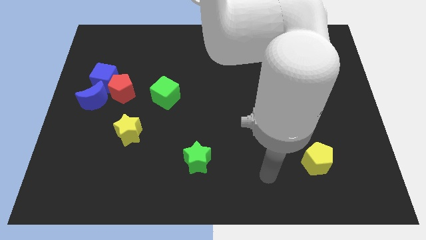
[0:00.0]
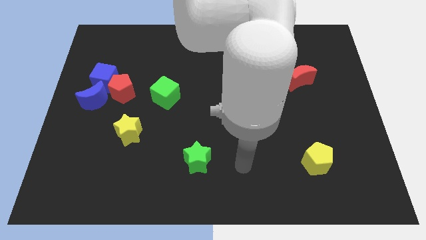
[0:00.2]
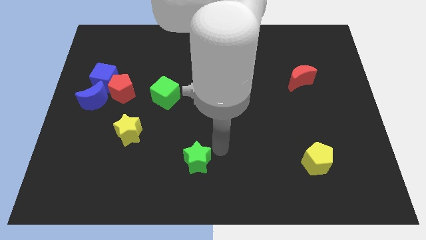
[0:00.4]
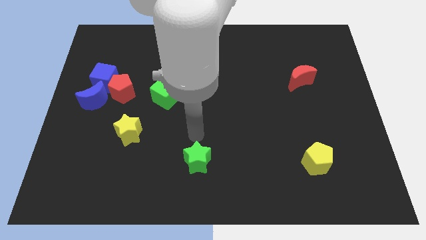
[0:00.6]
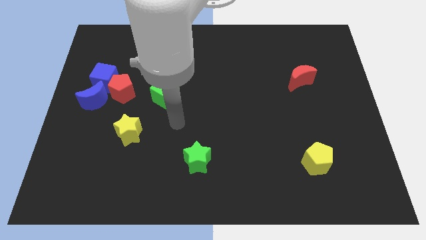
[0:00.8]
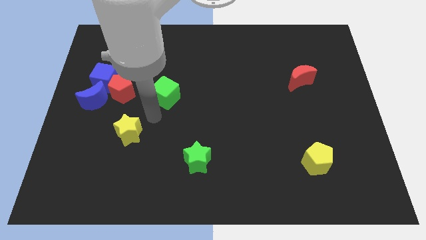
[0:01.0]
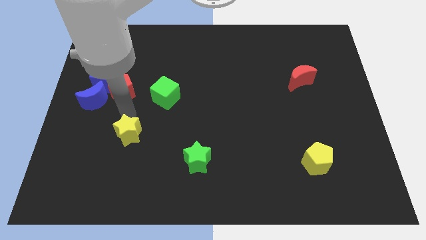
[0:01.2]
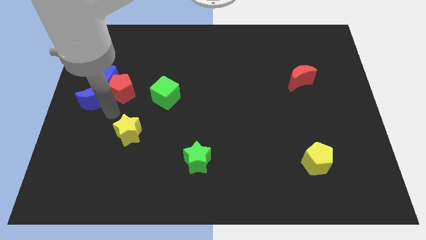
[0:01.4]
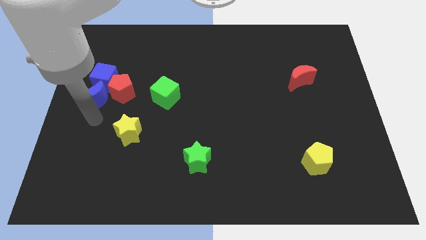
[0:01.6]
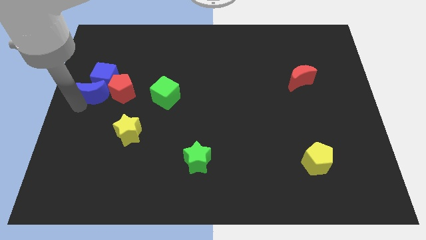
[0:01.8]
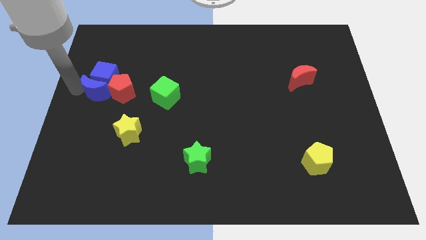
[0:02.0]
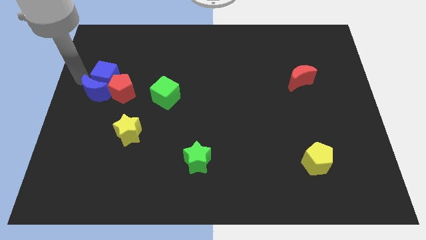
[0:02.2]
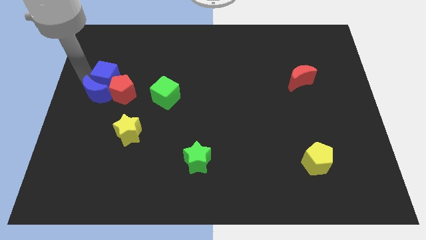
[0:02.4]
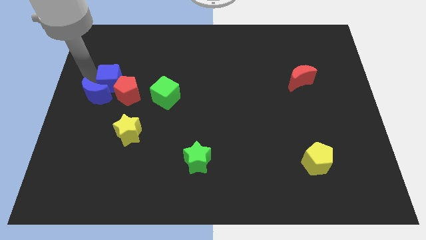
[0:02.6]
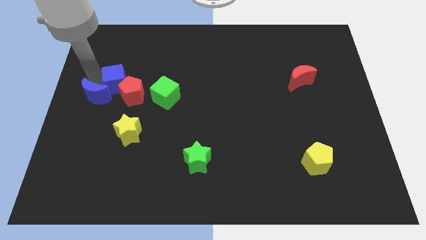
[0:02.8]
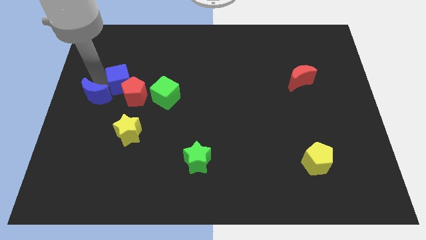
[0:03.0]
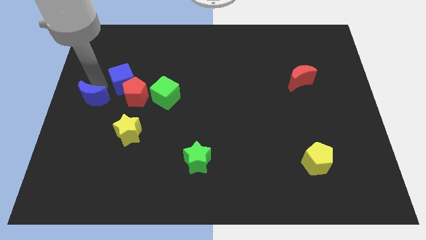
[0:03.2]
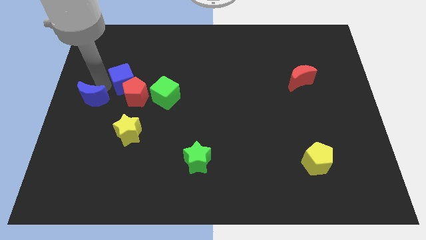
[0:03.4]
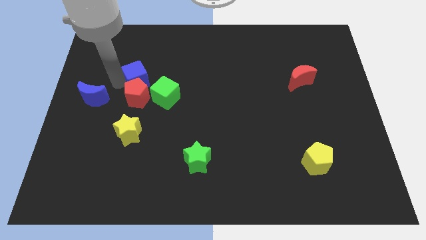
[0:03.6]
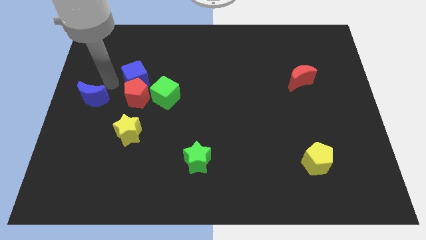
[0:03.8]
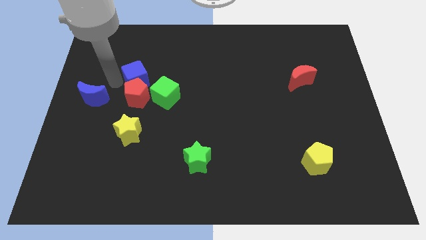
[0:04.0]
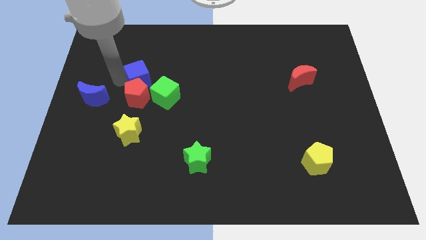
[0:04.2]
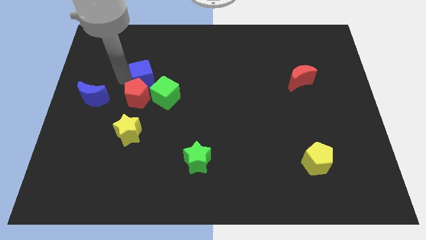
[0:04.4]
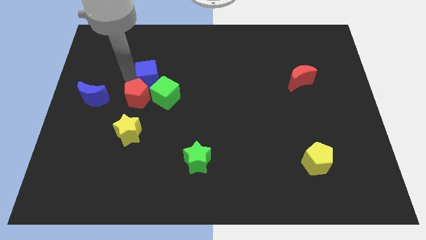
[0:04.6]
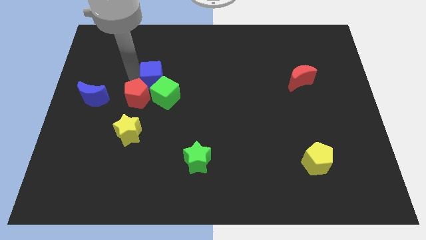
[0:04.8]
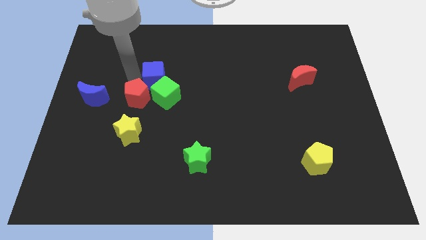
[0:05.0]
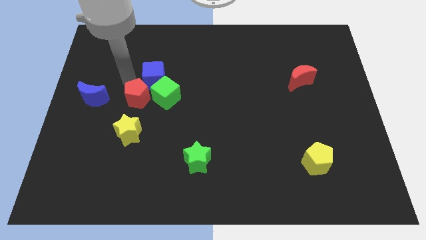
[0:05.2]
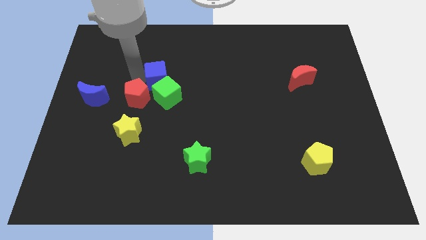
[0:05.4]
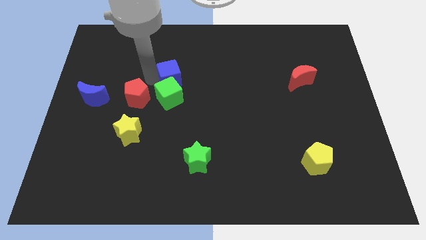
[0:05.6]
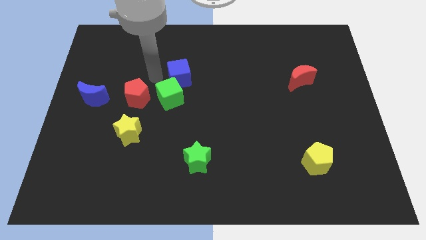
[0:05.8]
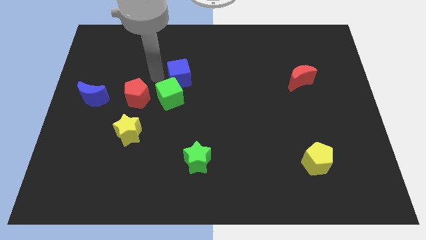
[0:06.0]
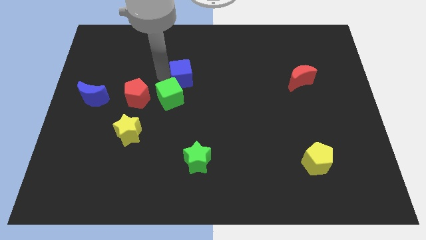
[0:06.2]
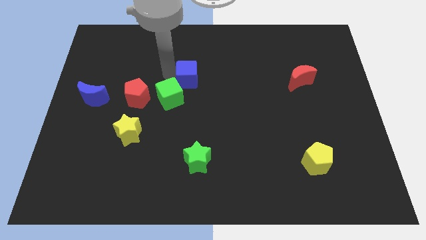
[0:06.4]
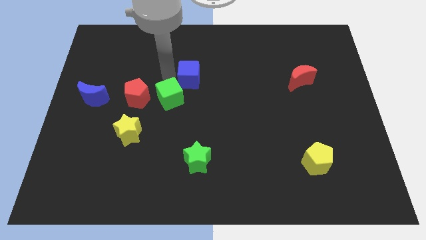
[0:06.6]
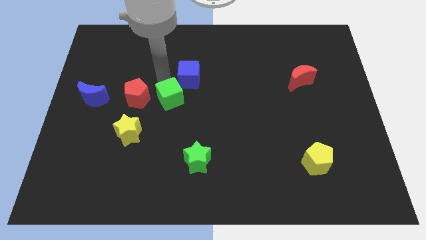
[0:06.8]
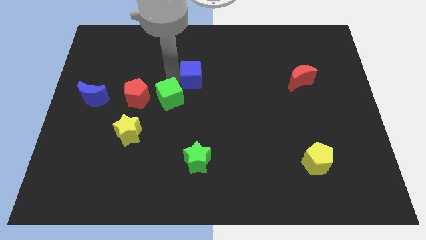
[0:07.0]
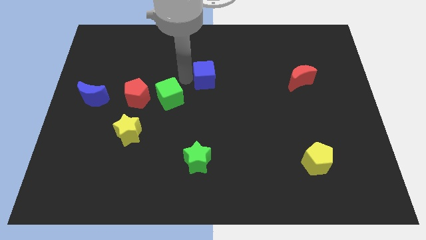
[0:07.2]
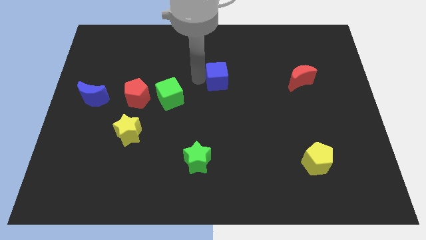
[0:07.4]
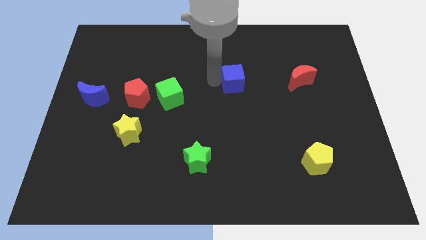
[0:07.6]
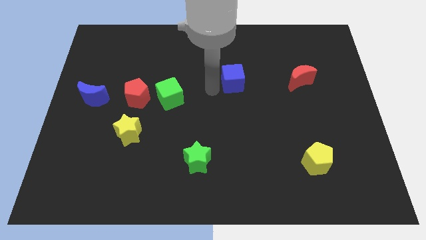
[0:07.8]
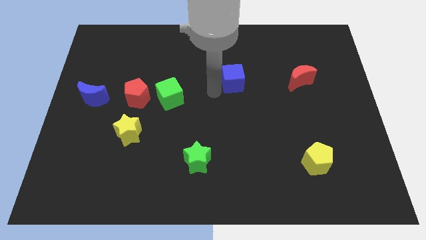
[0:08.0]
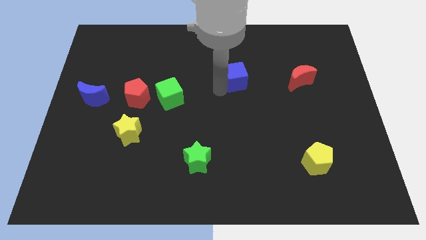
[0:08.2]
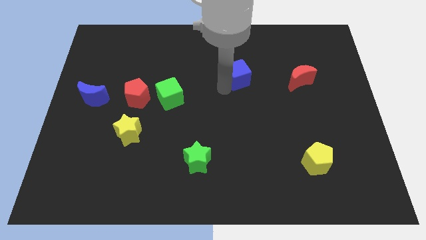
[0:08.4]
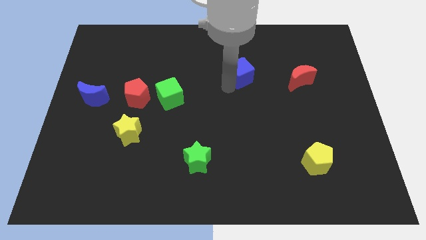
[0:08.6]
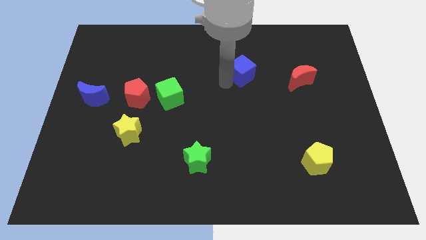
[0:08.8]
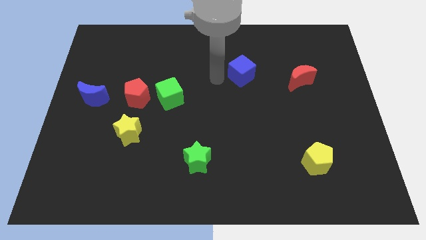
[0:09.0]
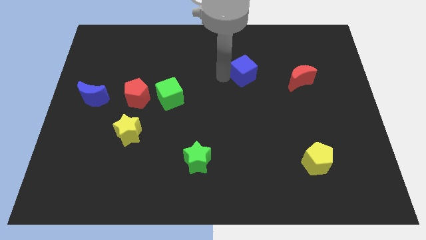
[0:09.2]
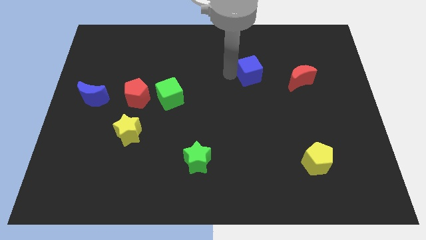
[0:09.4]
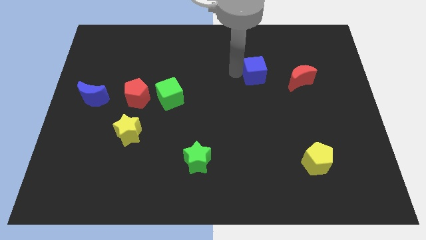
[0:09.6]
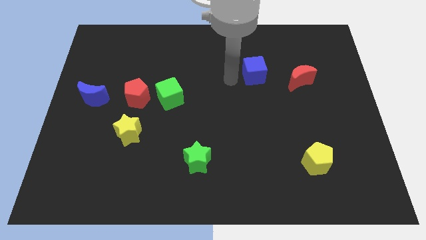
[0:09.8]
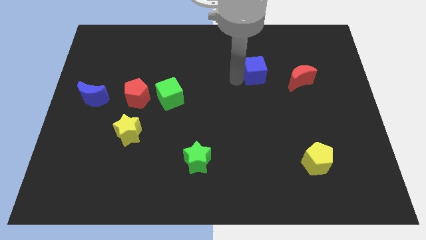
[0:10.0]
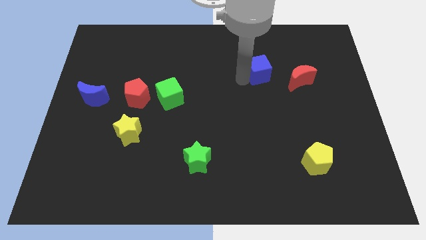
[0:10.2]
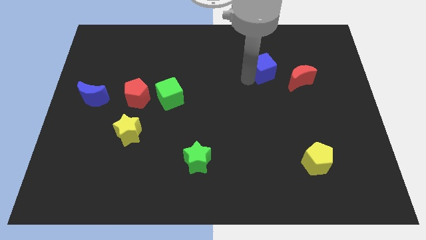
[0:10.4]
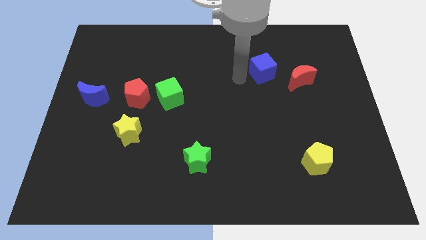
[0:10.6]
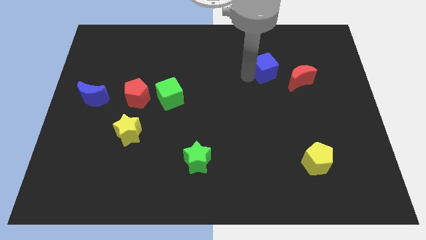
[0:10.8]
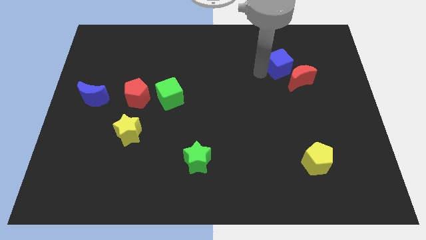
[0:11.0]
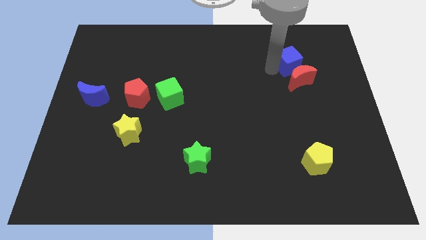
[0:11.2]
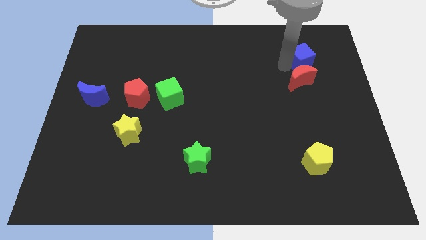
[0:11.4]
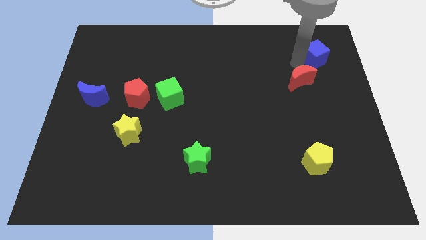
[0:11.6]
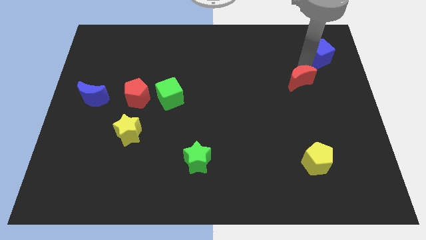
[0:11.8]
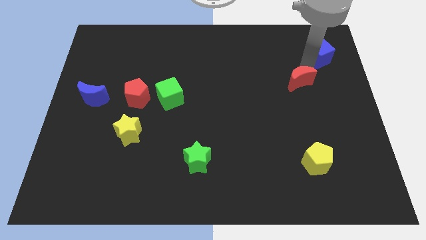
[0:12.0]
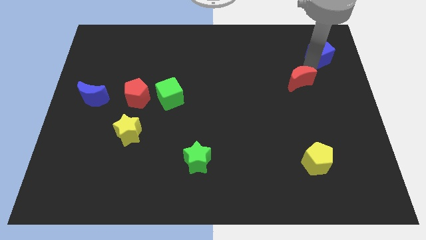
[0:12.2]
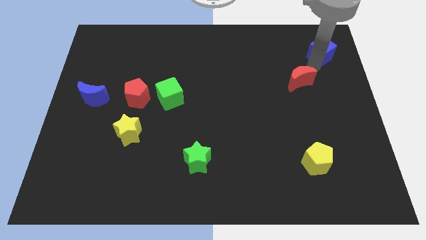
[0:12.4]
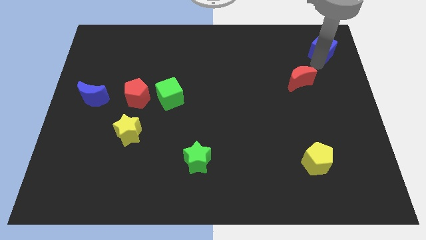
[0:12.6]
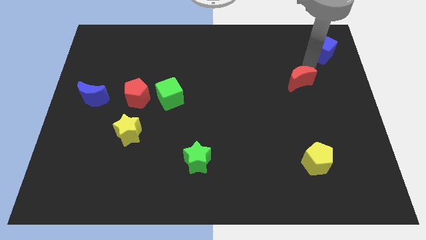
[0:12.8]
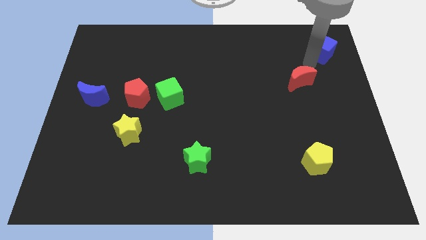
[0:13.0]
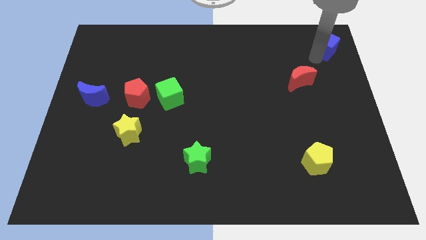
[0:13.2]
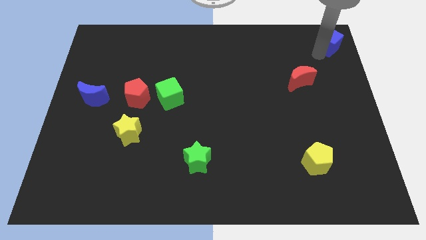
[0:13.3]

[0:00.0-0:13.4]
put the blue cube to the top right

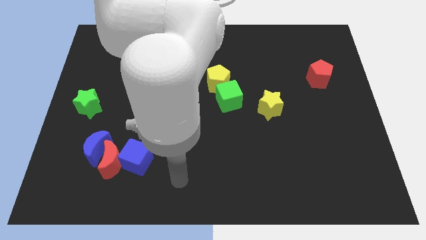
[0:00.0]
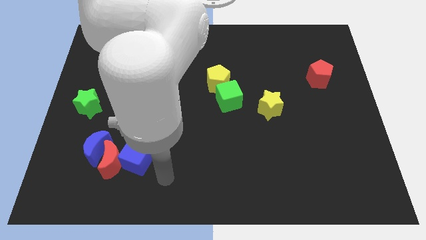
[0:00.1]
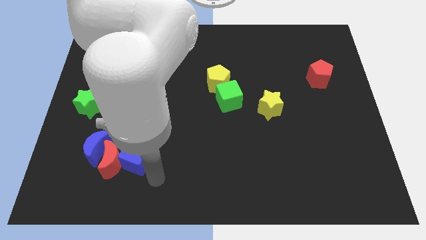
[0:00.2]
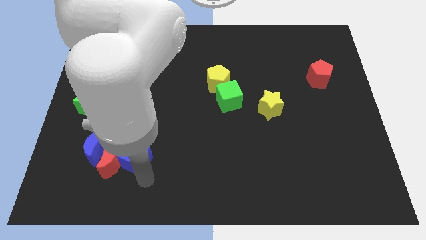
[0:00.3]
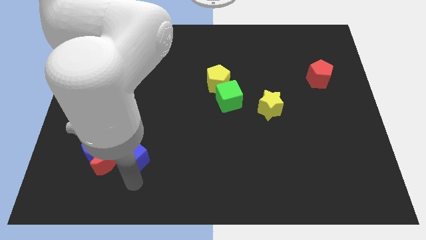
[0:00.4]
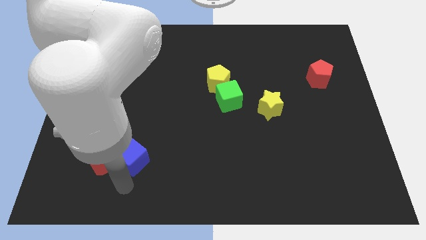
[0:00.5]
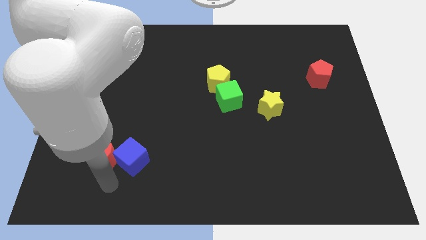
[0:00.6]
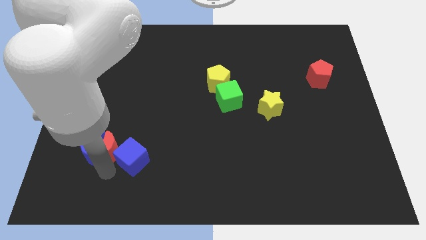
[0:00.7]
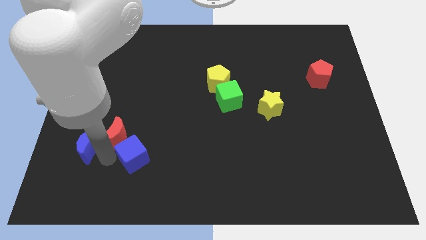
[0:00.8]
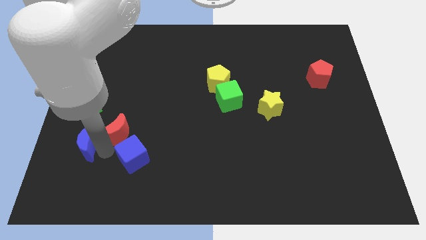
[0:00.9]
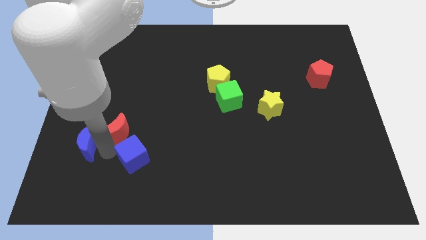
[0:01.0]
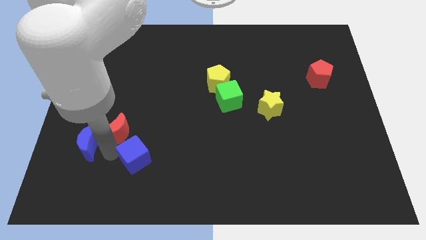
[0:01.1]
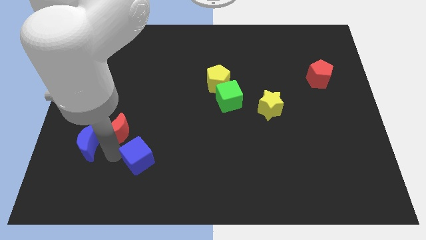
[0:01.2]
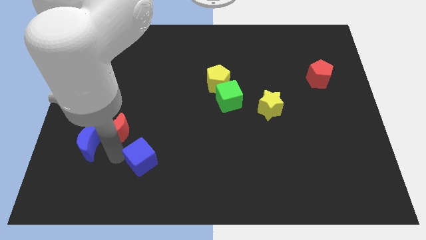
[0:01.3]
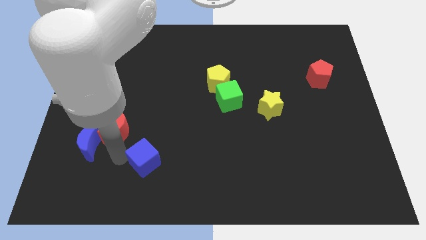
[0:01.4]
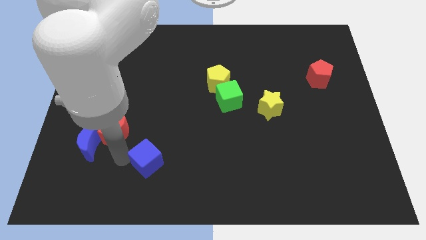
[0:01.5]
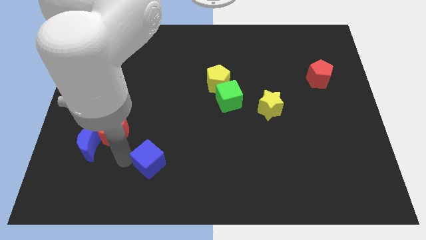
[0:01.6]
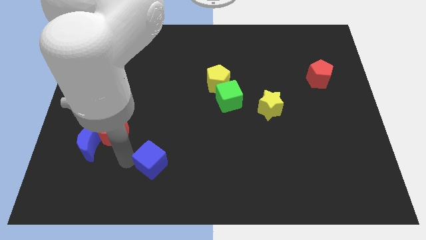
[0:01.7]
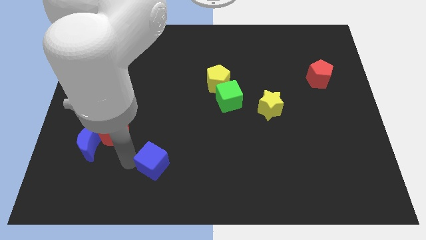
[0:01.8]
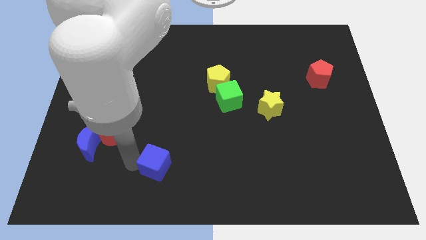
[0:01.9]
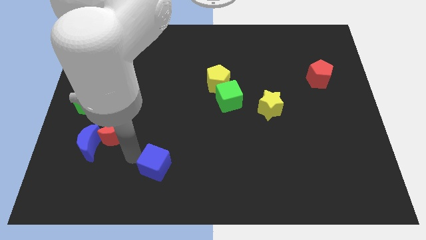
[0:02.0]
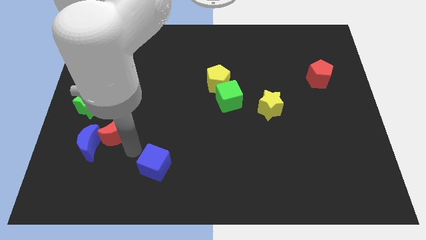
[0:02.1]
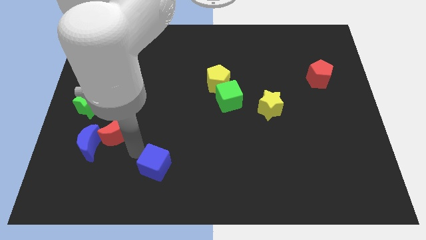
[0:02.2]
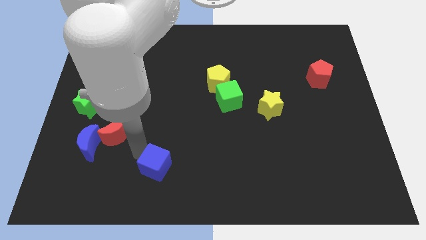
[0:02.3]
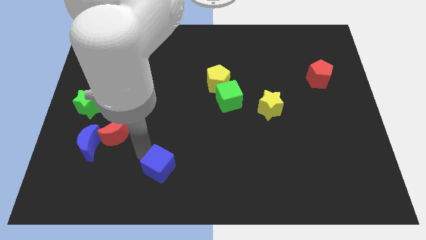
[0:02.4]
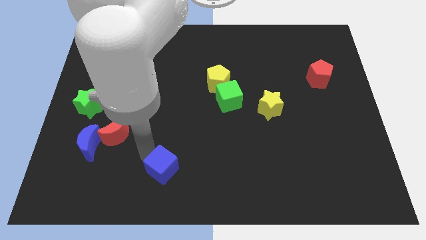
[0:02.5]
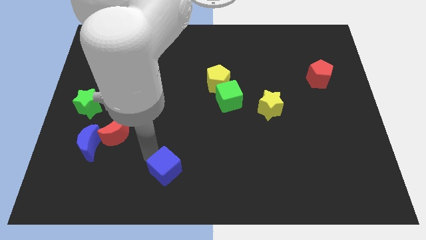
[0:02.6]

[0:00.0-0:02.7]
slide the blue cube to the bottom side
